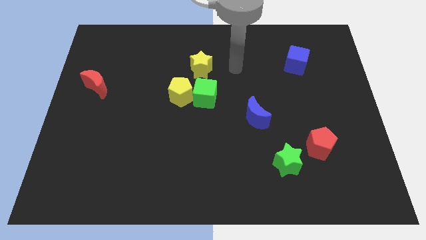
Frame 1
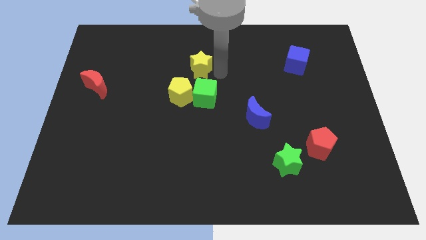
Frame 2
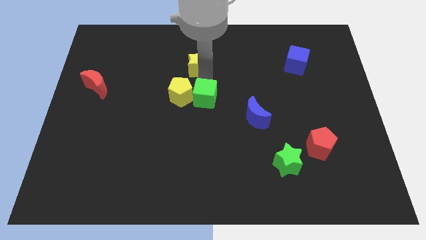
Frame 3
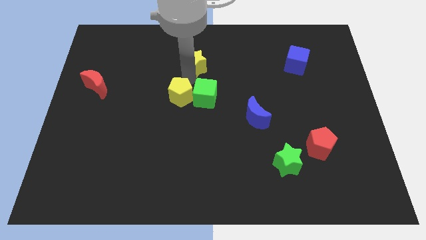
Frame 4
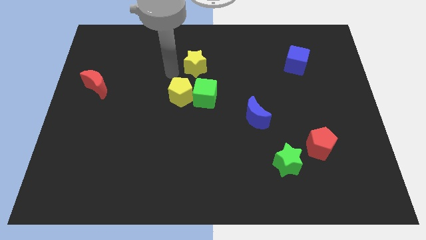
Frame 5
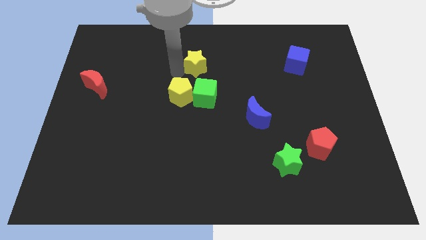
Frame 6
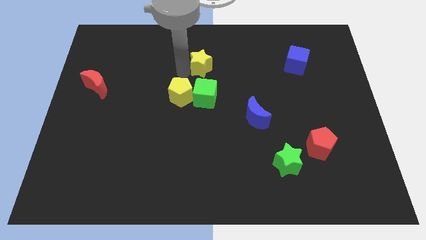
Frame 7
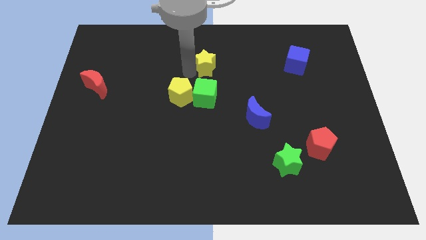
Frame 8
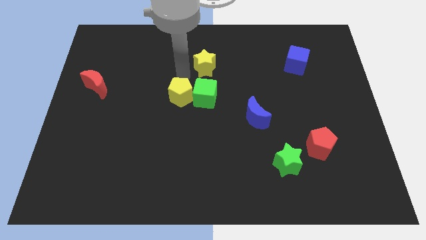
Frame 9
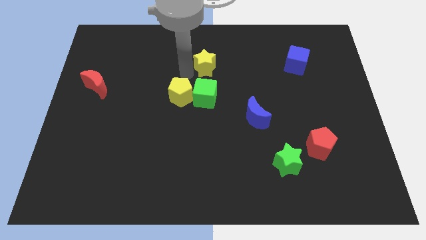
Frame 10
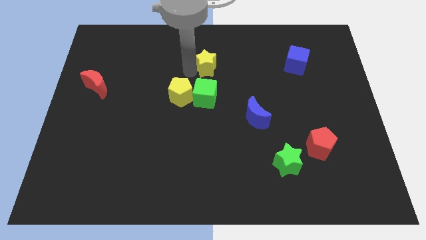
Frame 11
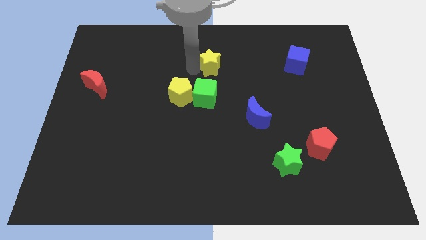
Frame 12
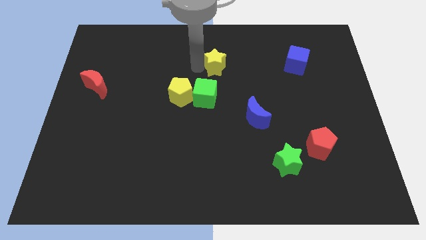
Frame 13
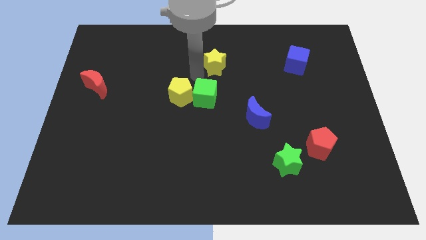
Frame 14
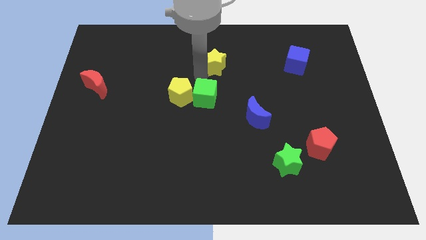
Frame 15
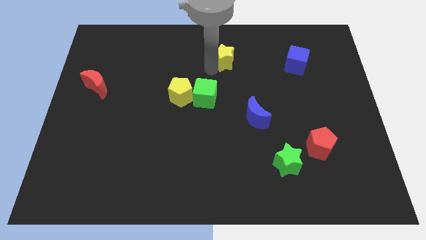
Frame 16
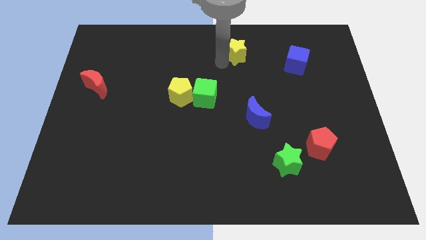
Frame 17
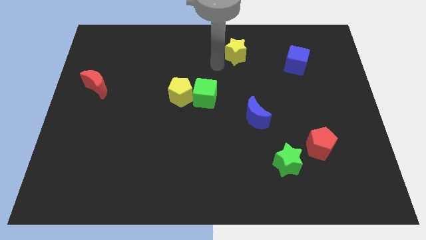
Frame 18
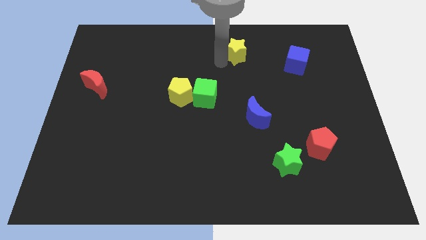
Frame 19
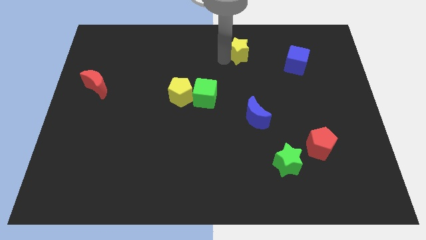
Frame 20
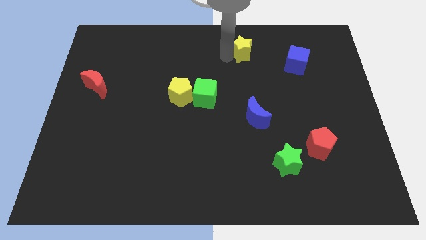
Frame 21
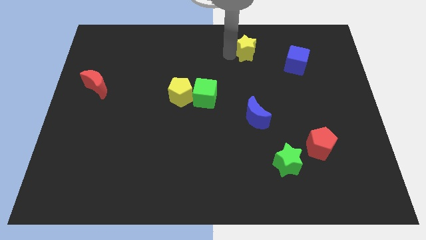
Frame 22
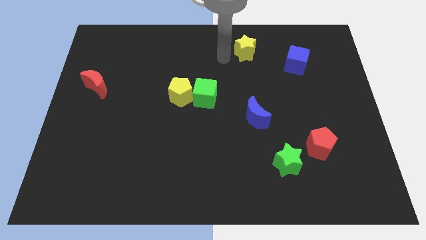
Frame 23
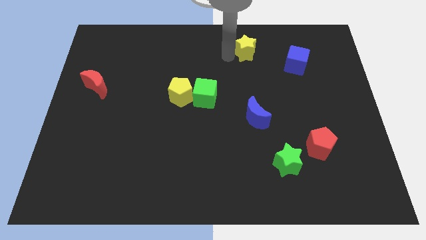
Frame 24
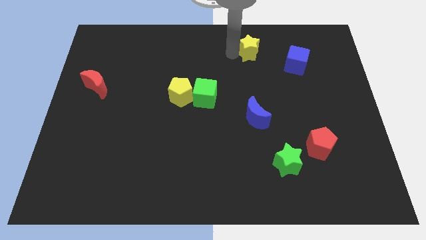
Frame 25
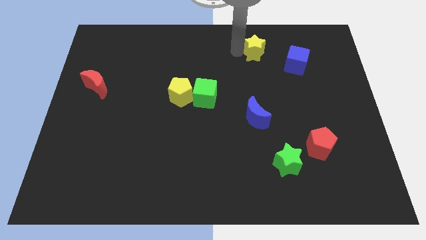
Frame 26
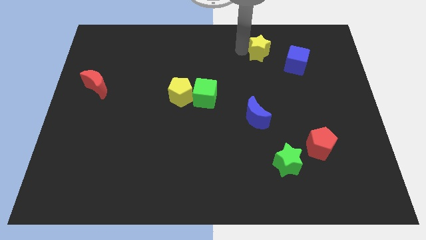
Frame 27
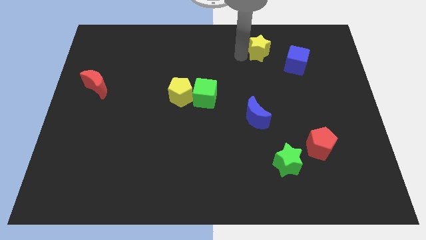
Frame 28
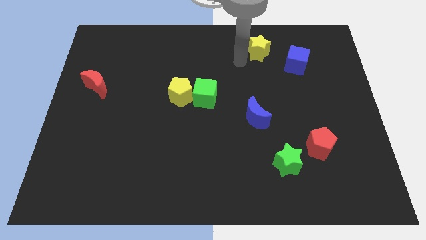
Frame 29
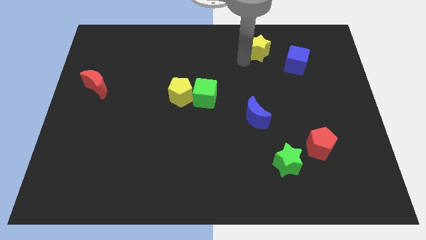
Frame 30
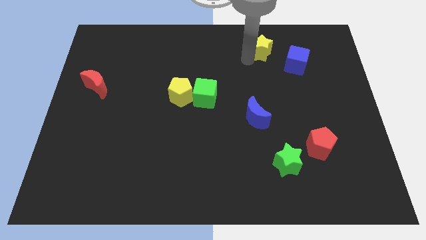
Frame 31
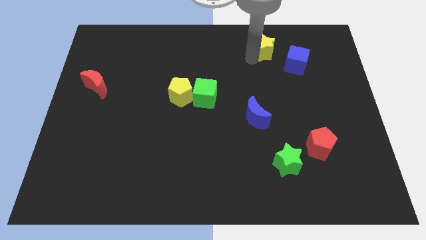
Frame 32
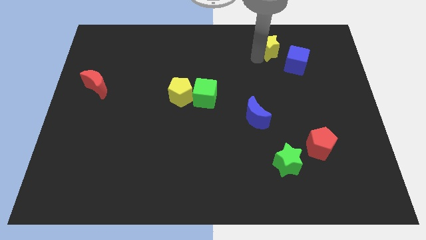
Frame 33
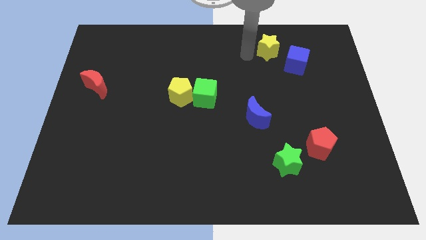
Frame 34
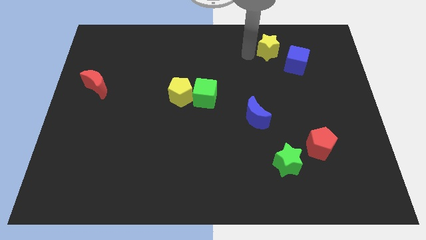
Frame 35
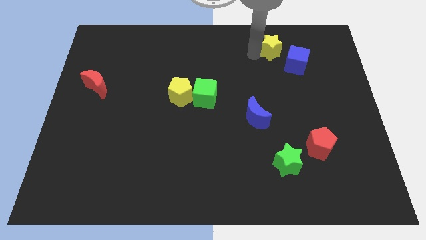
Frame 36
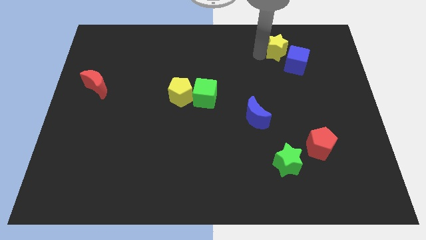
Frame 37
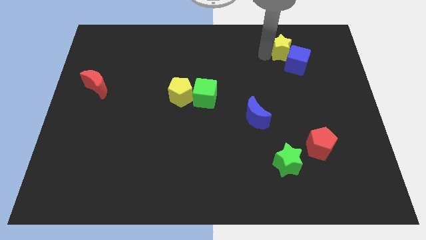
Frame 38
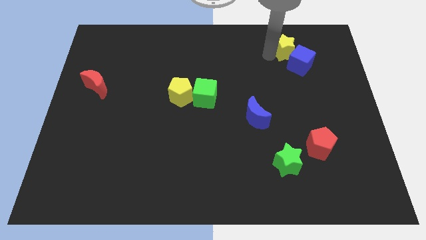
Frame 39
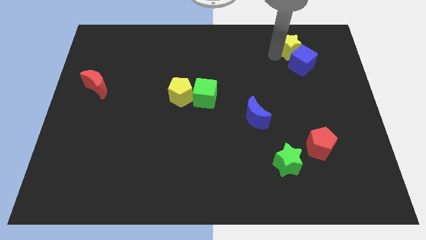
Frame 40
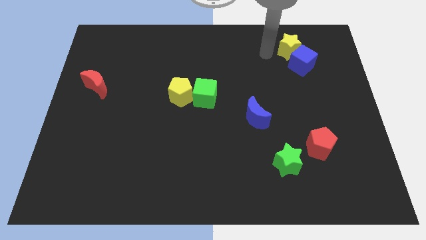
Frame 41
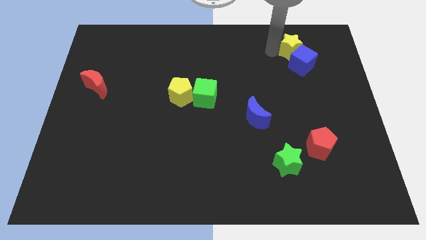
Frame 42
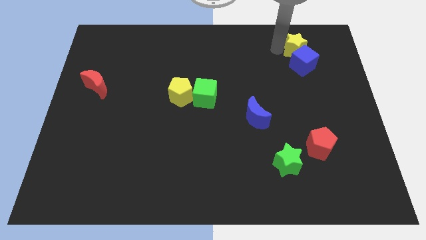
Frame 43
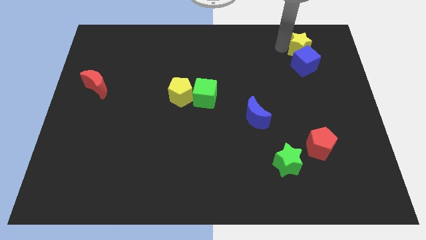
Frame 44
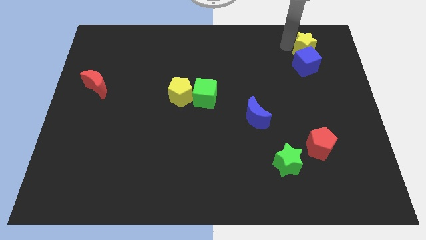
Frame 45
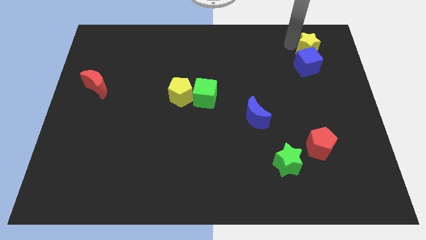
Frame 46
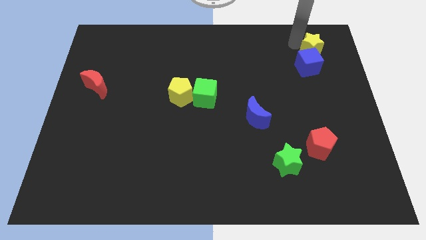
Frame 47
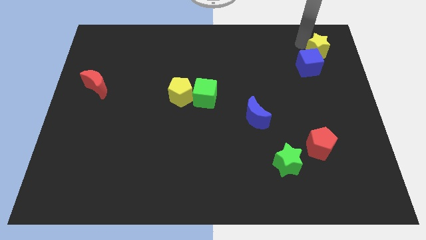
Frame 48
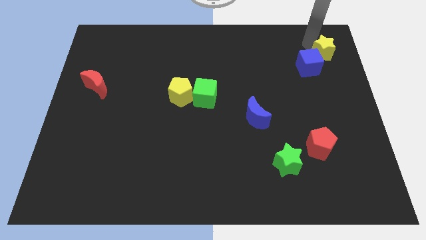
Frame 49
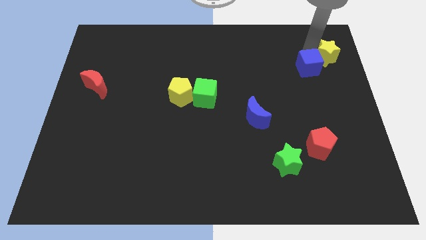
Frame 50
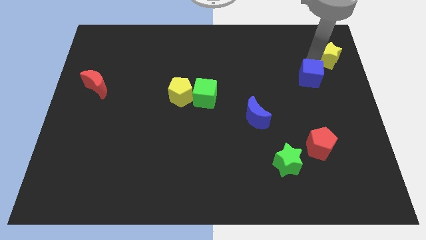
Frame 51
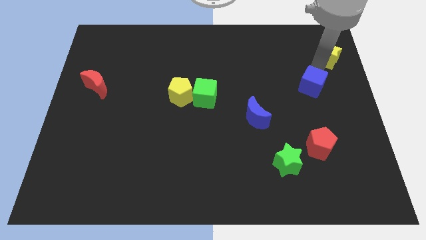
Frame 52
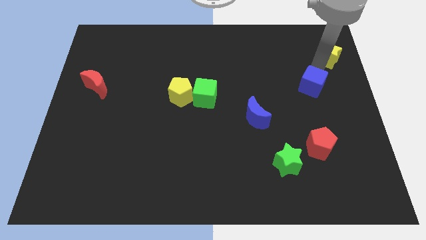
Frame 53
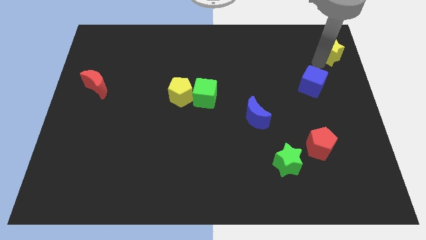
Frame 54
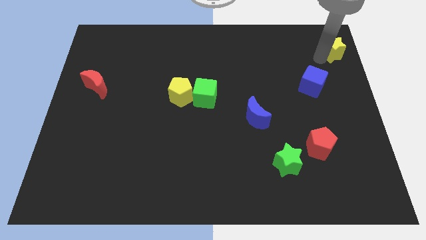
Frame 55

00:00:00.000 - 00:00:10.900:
put the yellow star to the top right

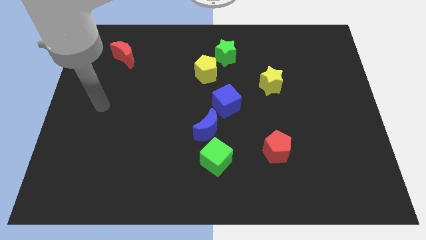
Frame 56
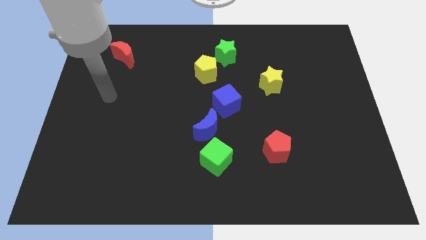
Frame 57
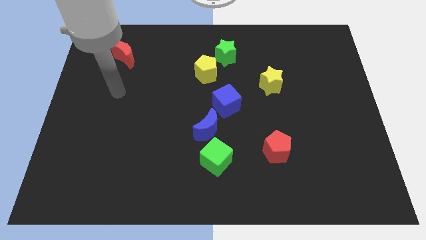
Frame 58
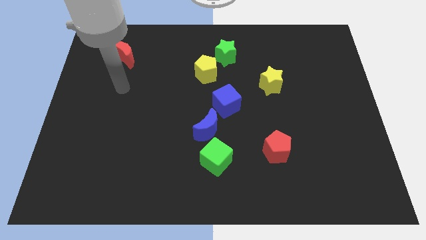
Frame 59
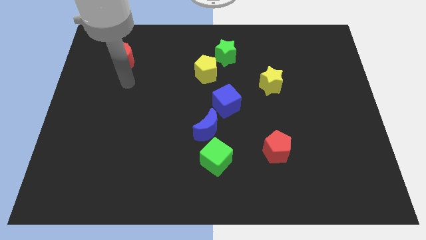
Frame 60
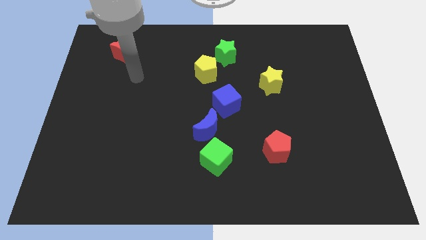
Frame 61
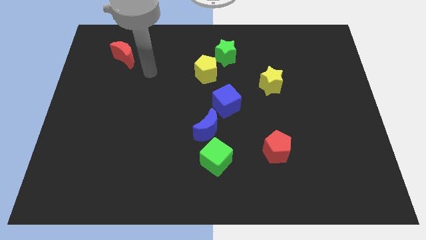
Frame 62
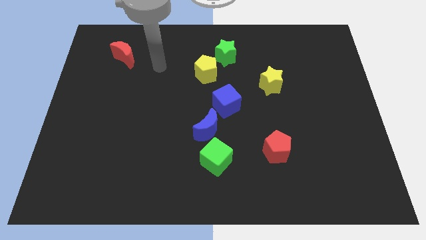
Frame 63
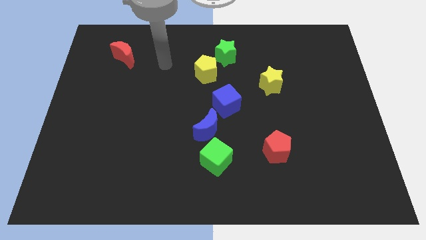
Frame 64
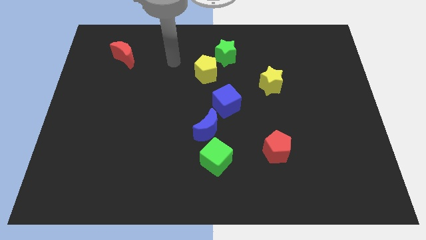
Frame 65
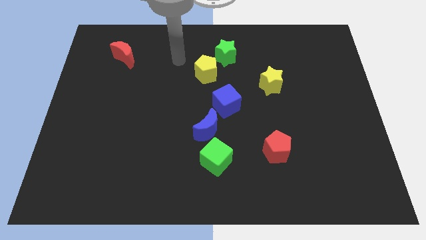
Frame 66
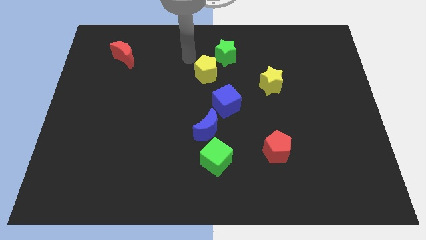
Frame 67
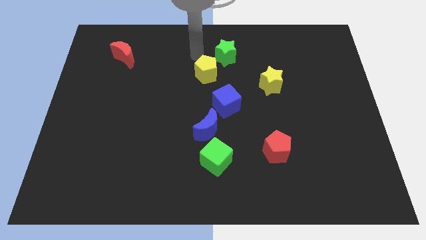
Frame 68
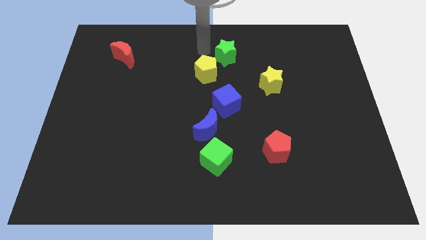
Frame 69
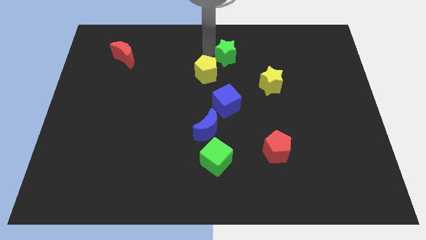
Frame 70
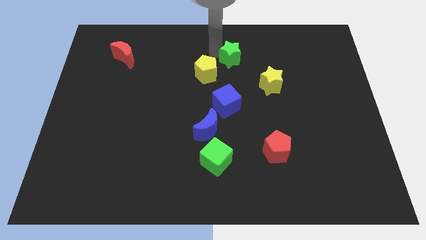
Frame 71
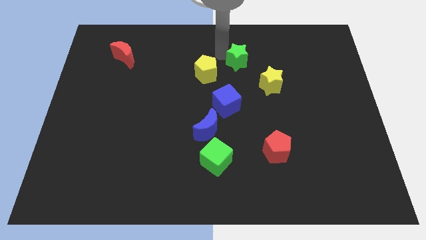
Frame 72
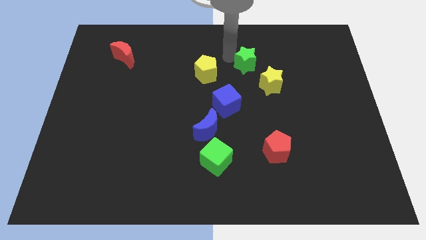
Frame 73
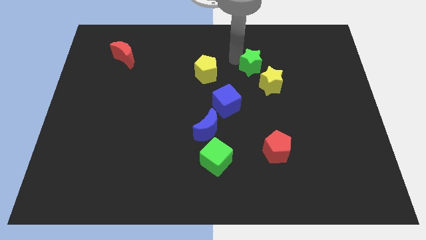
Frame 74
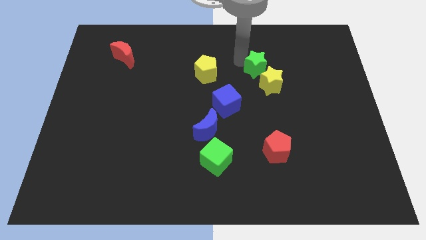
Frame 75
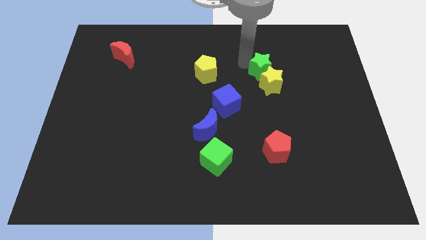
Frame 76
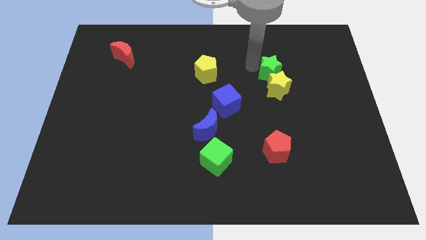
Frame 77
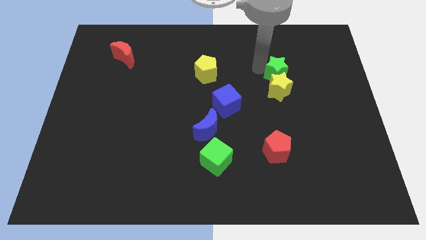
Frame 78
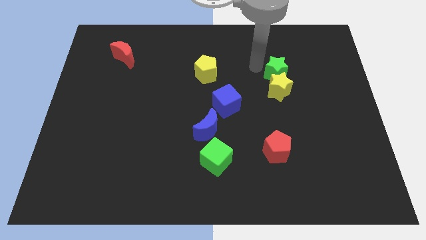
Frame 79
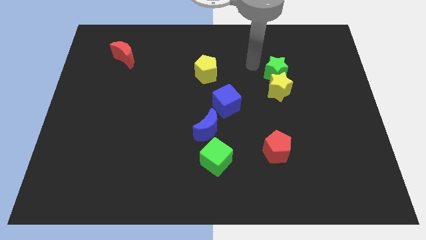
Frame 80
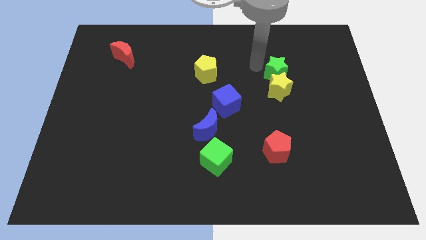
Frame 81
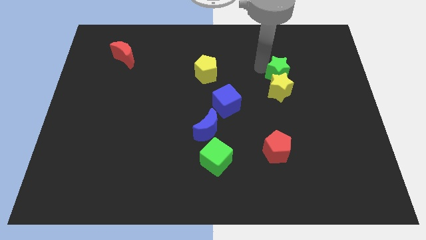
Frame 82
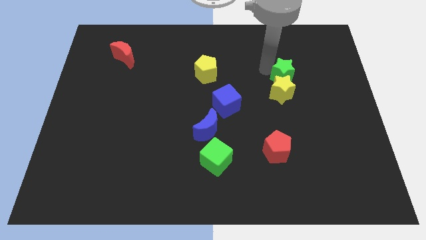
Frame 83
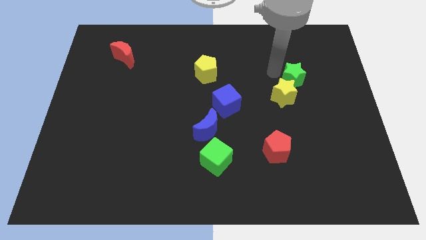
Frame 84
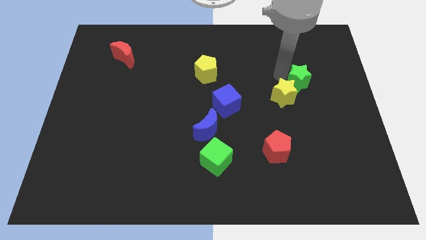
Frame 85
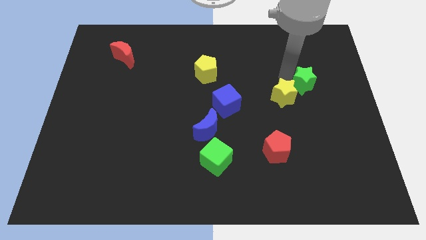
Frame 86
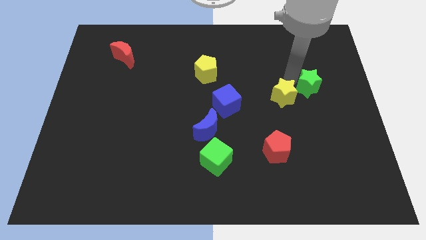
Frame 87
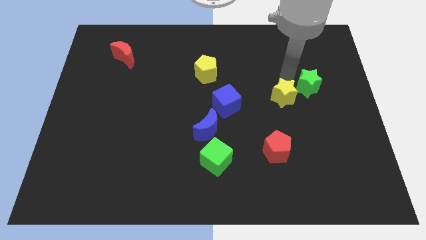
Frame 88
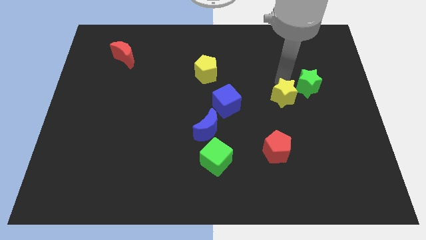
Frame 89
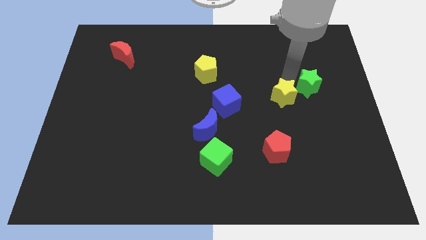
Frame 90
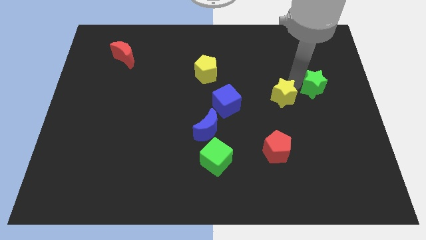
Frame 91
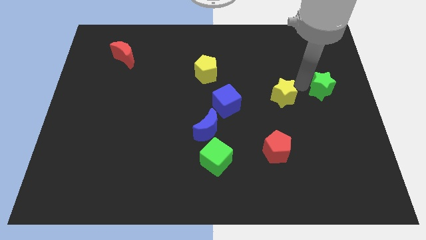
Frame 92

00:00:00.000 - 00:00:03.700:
put the green star to the right side
